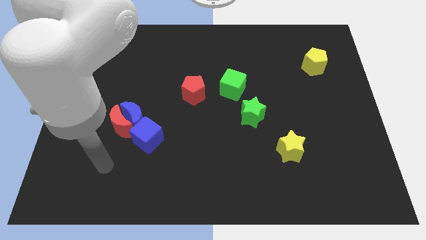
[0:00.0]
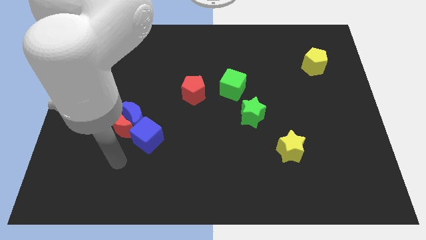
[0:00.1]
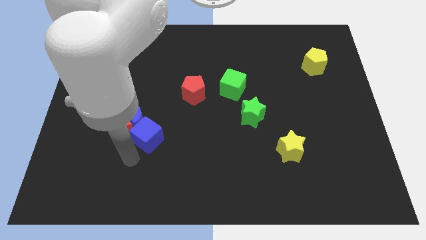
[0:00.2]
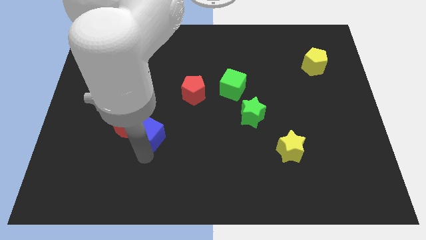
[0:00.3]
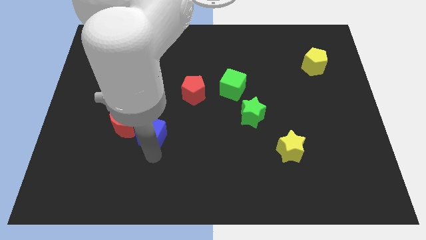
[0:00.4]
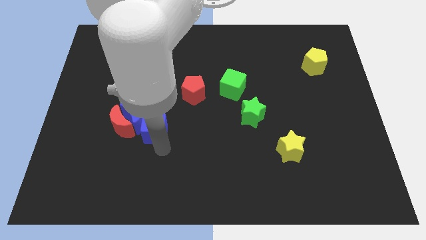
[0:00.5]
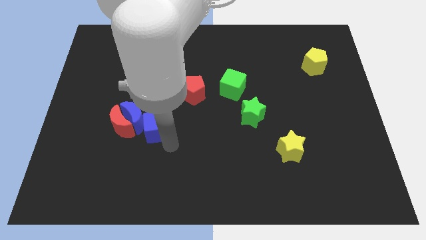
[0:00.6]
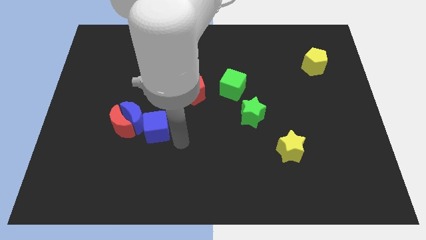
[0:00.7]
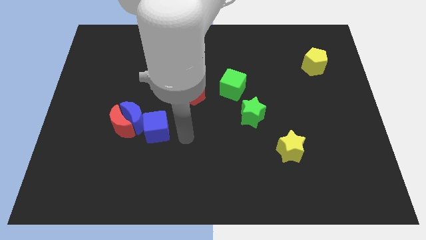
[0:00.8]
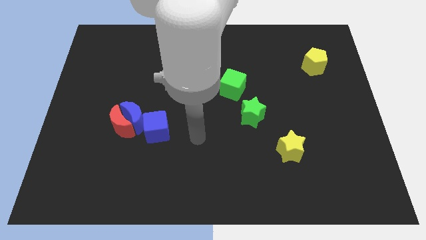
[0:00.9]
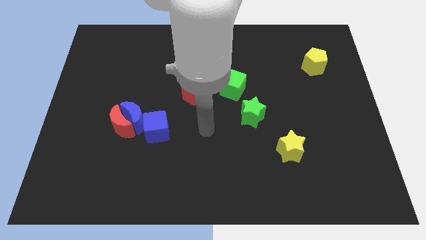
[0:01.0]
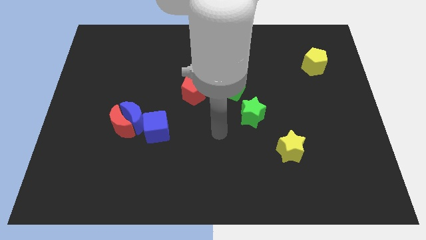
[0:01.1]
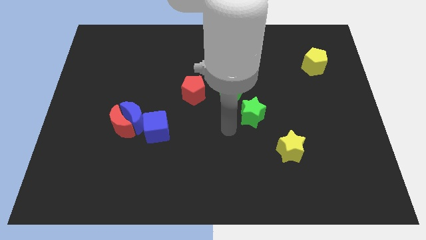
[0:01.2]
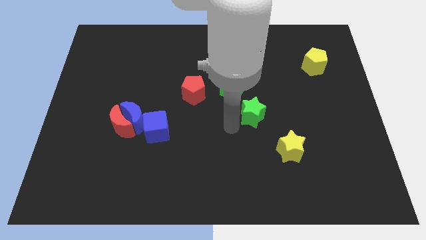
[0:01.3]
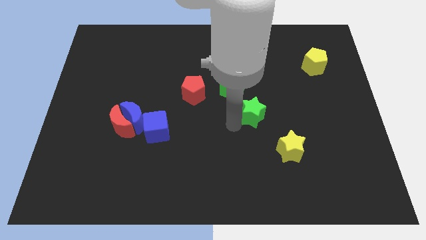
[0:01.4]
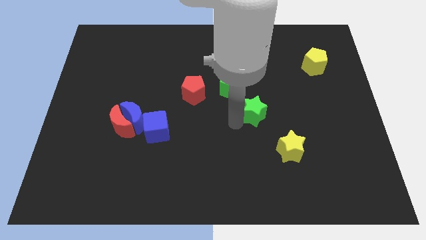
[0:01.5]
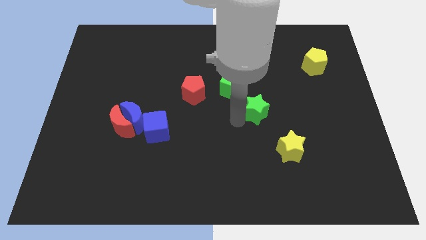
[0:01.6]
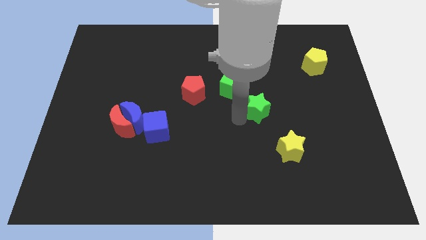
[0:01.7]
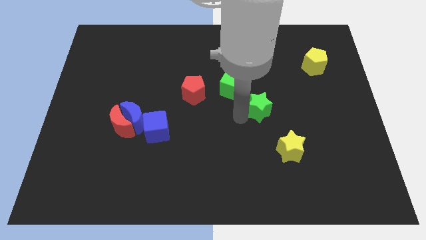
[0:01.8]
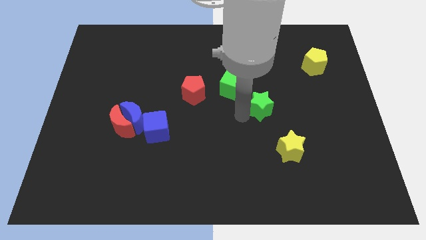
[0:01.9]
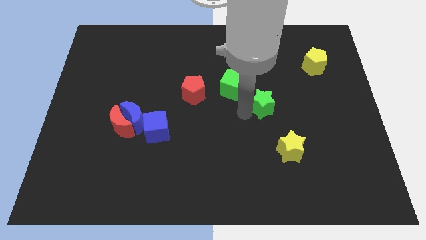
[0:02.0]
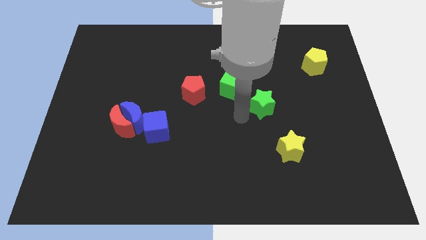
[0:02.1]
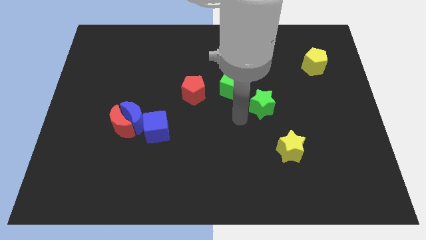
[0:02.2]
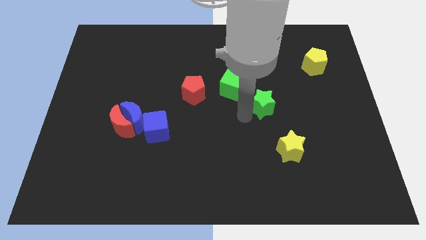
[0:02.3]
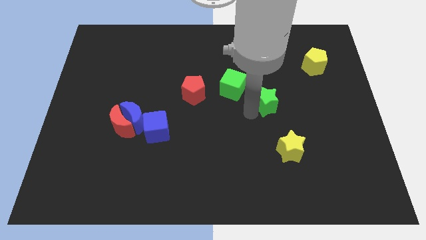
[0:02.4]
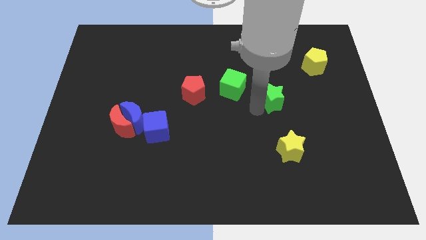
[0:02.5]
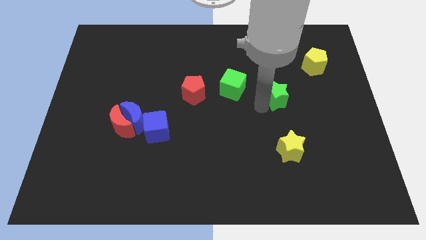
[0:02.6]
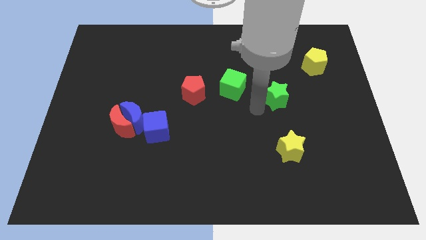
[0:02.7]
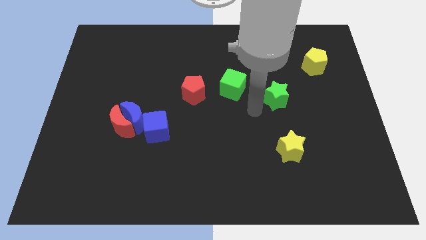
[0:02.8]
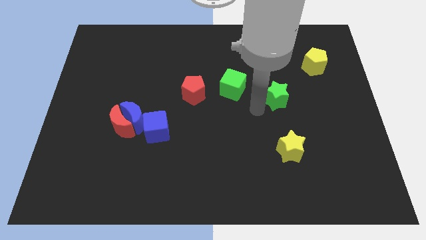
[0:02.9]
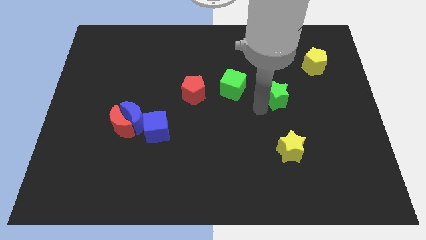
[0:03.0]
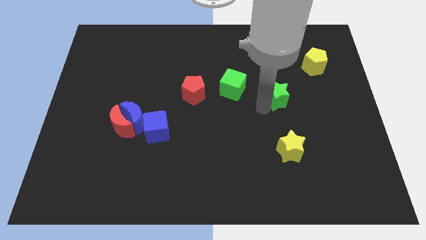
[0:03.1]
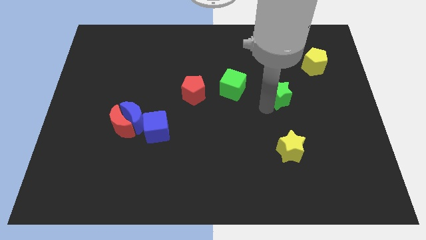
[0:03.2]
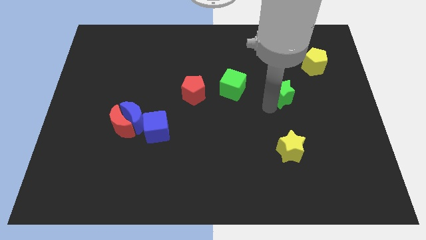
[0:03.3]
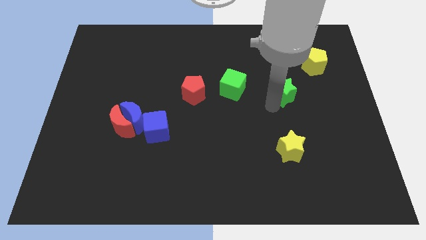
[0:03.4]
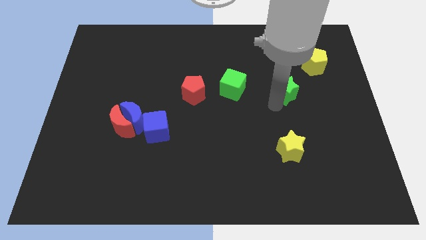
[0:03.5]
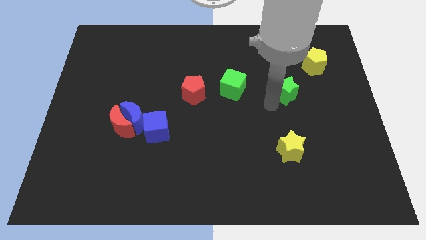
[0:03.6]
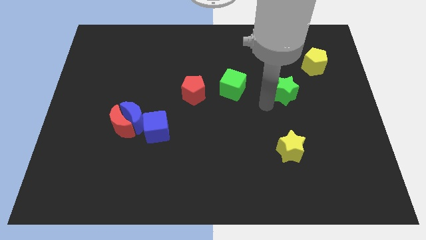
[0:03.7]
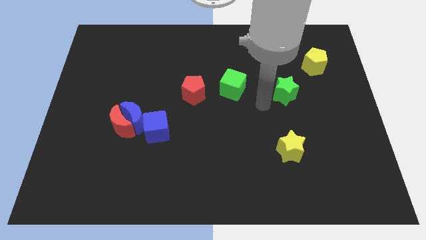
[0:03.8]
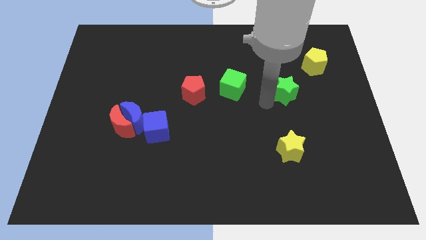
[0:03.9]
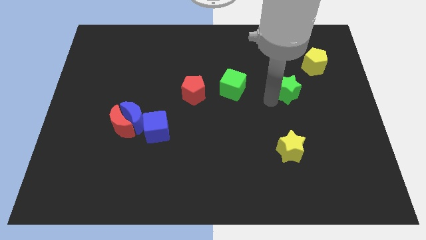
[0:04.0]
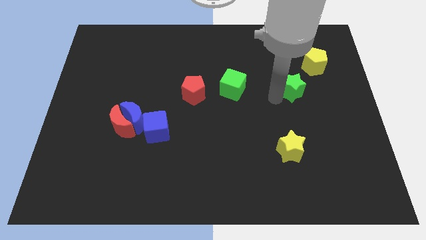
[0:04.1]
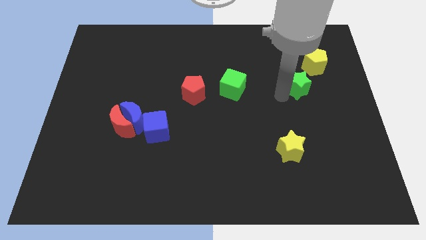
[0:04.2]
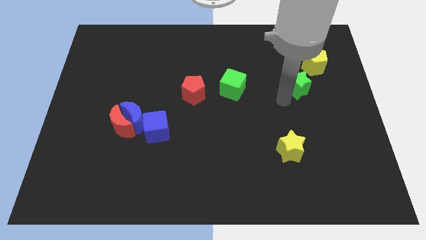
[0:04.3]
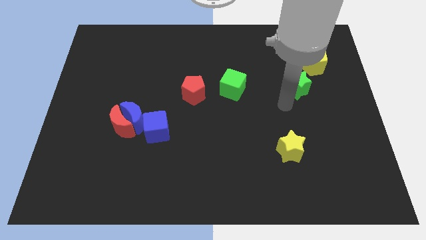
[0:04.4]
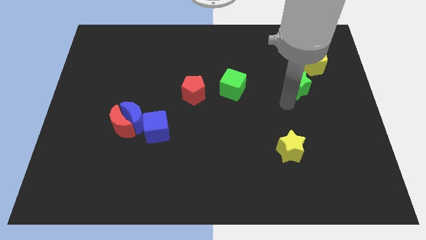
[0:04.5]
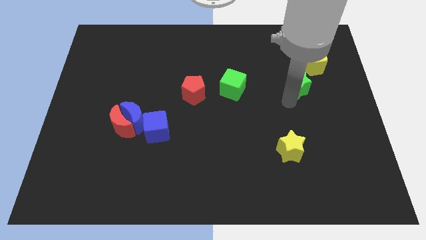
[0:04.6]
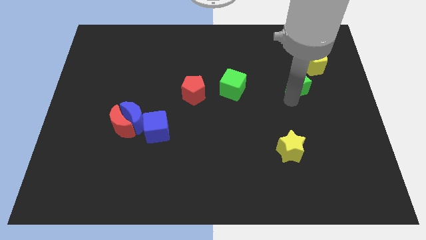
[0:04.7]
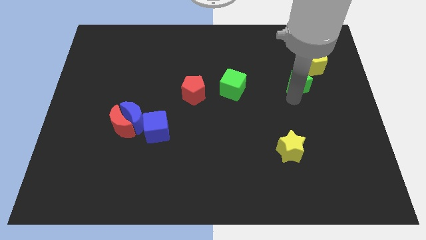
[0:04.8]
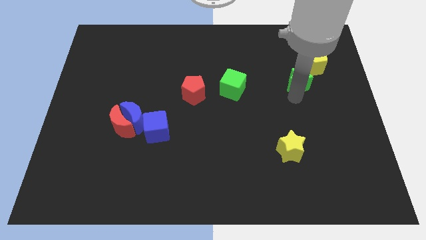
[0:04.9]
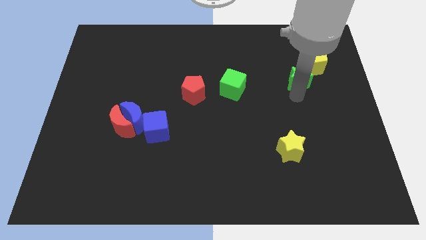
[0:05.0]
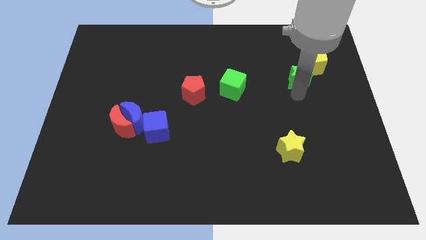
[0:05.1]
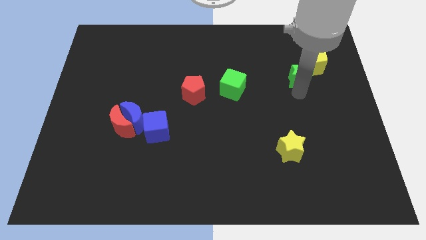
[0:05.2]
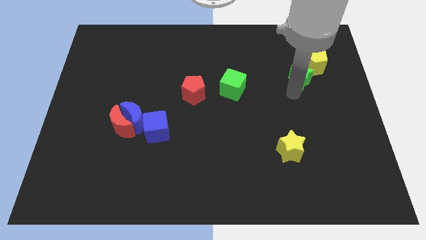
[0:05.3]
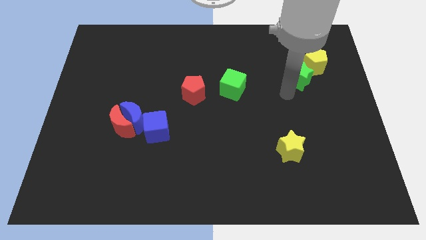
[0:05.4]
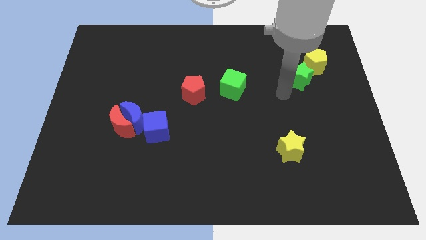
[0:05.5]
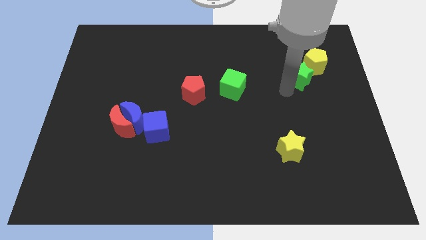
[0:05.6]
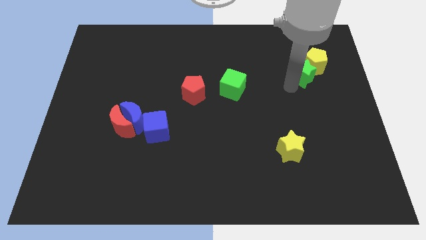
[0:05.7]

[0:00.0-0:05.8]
slide the green star close to the yellow pentagon

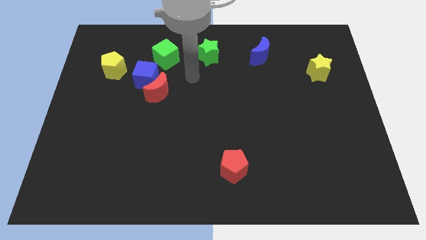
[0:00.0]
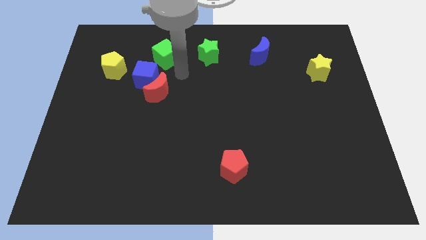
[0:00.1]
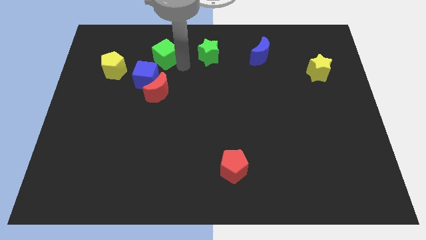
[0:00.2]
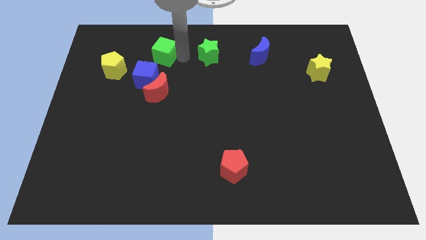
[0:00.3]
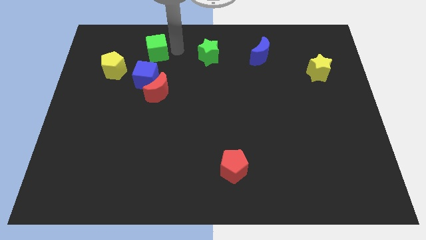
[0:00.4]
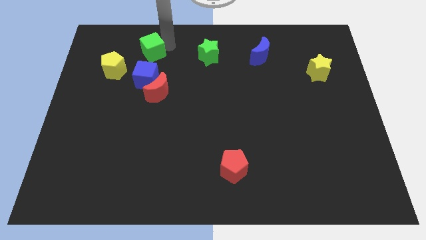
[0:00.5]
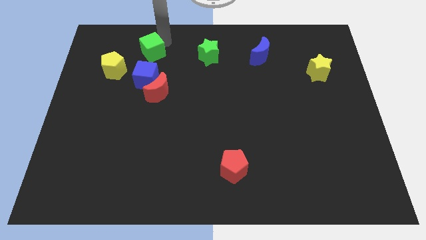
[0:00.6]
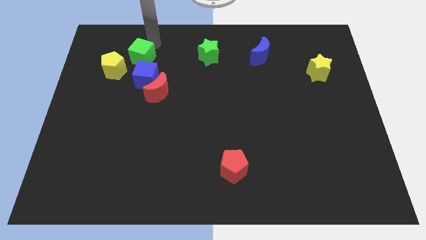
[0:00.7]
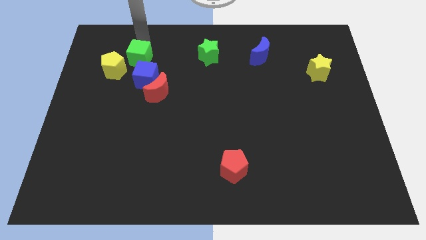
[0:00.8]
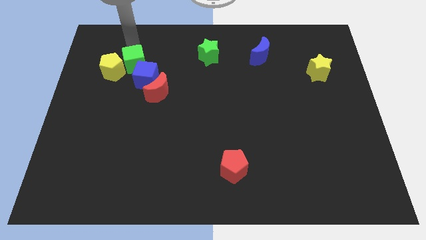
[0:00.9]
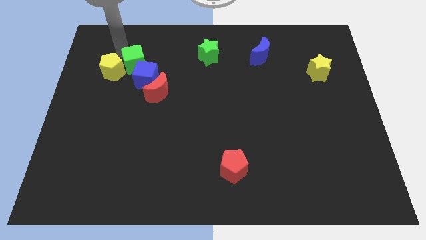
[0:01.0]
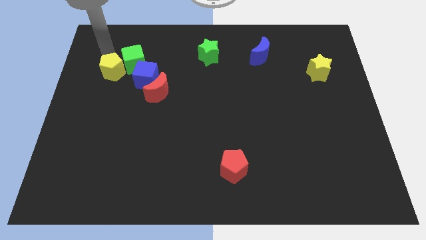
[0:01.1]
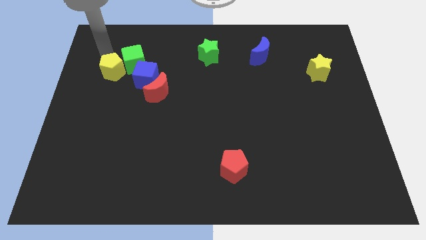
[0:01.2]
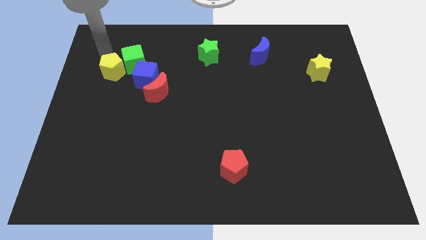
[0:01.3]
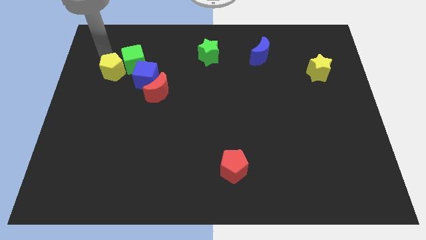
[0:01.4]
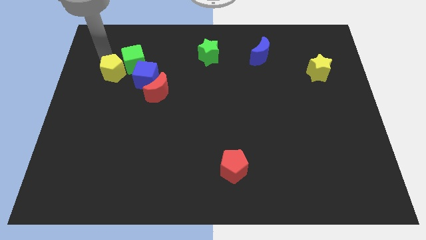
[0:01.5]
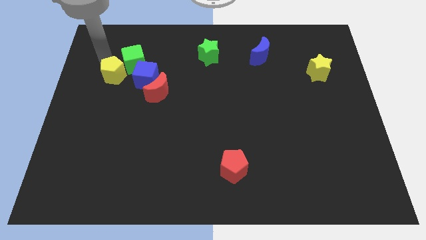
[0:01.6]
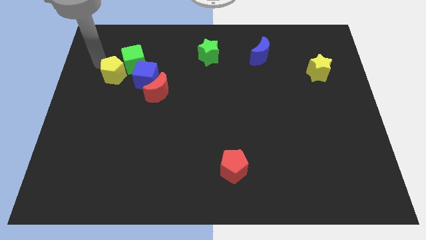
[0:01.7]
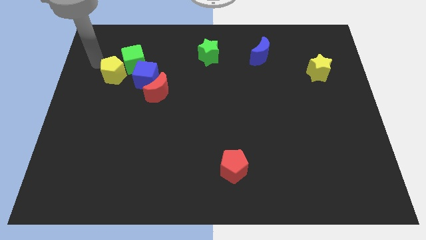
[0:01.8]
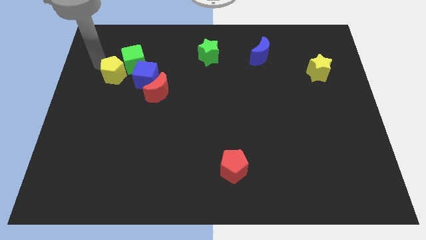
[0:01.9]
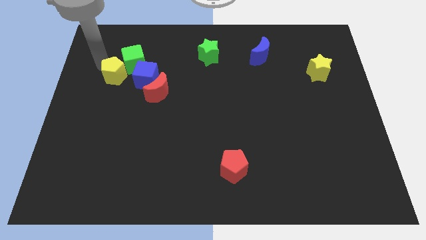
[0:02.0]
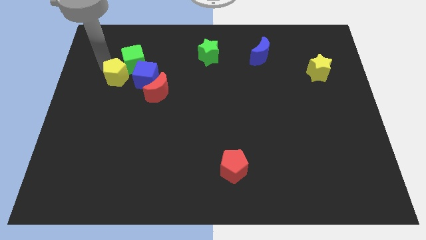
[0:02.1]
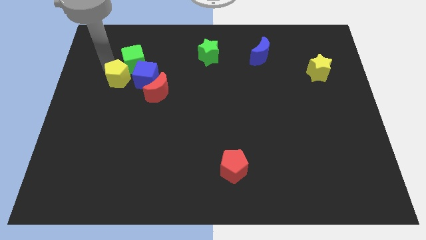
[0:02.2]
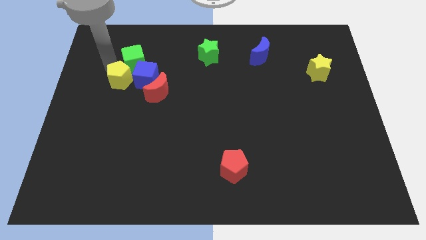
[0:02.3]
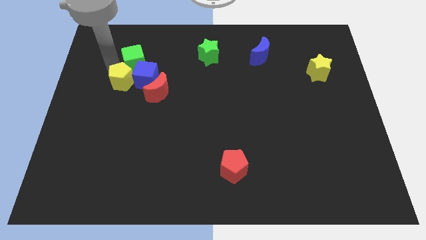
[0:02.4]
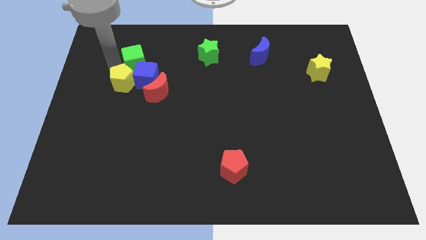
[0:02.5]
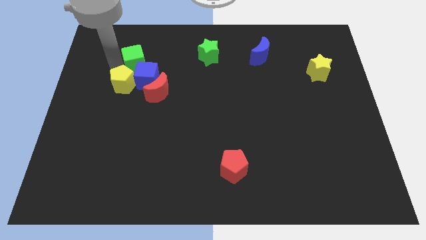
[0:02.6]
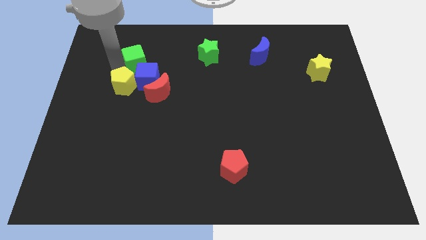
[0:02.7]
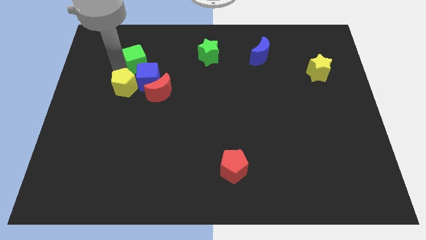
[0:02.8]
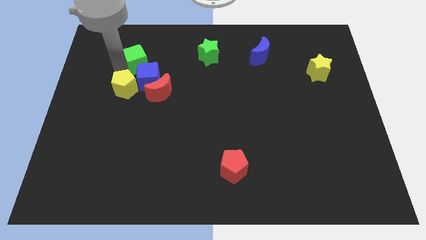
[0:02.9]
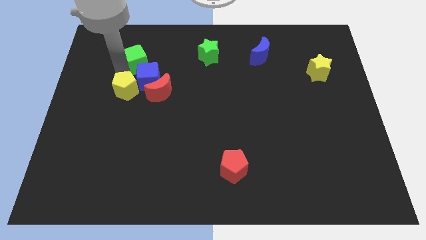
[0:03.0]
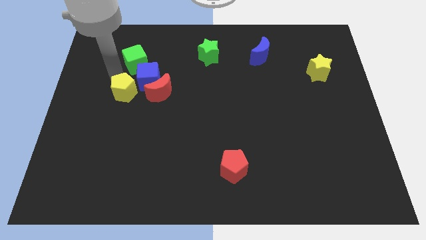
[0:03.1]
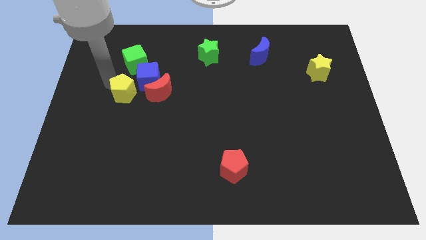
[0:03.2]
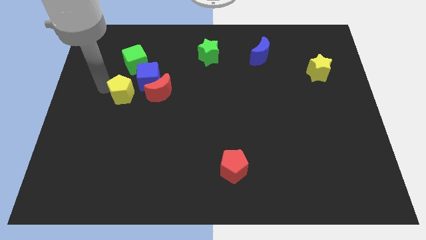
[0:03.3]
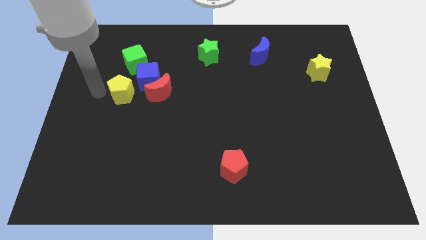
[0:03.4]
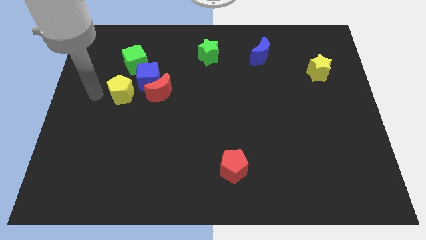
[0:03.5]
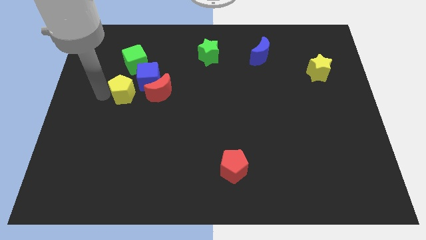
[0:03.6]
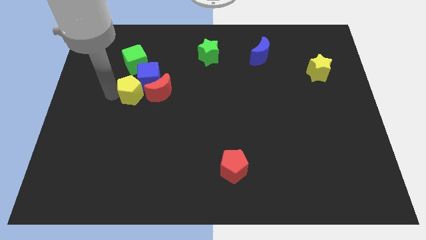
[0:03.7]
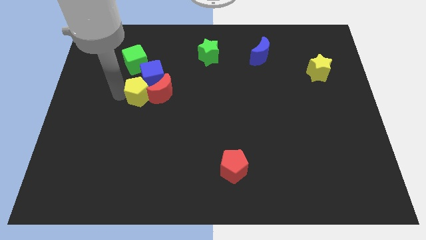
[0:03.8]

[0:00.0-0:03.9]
push the yellow pentagon close to the red moon
